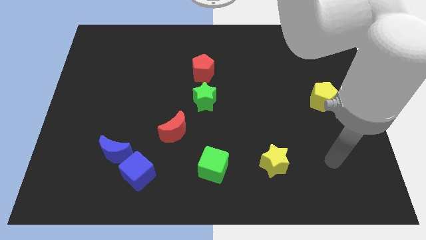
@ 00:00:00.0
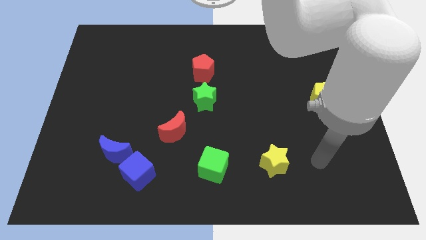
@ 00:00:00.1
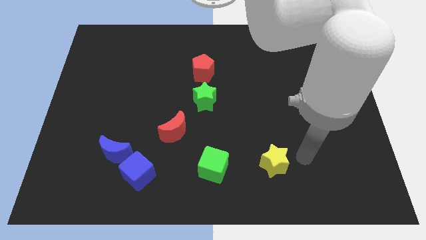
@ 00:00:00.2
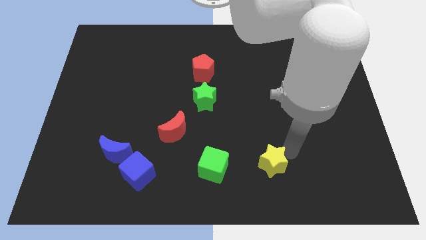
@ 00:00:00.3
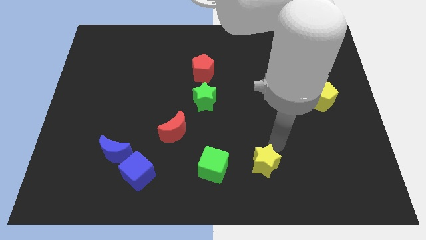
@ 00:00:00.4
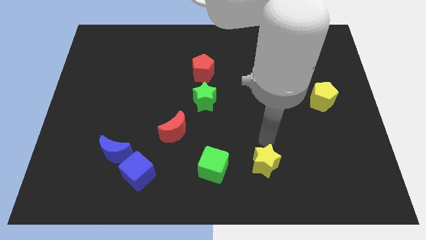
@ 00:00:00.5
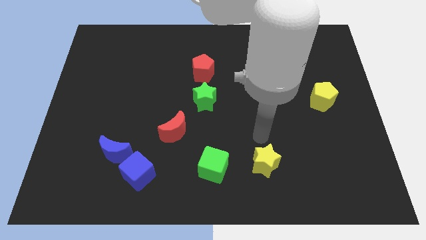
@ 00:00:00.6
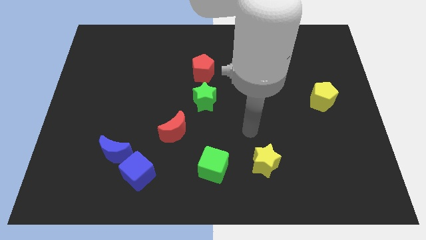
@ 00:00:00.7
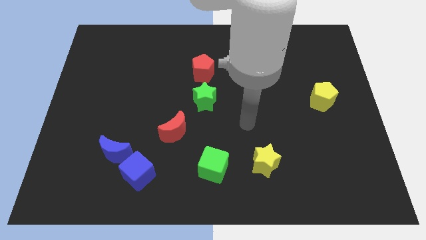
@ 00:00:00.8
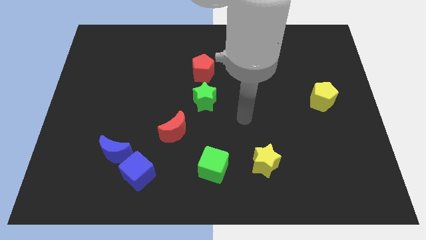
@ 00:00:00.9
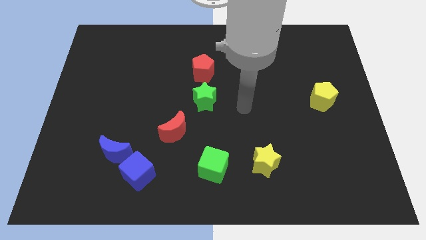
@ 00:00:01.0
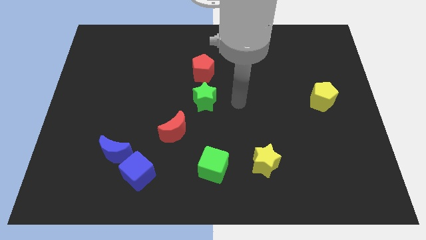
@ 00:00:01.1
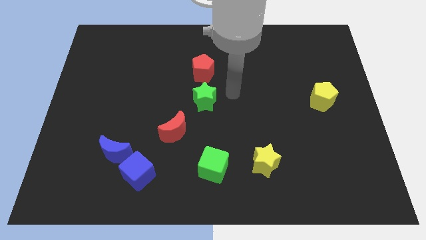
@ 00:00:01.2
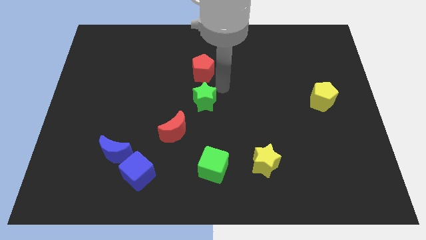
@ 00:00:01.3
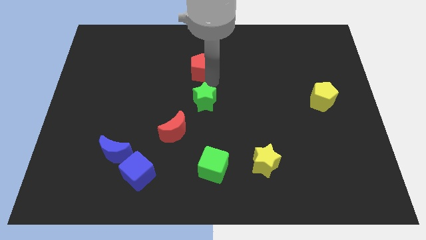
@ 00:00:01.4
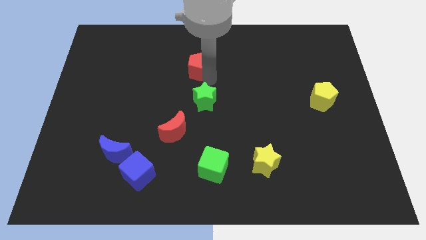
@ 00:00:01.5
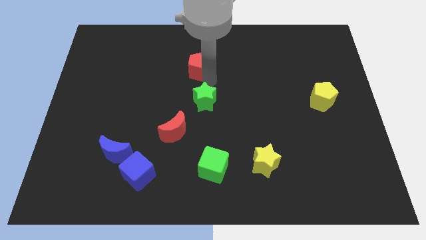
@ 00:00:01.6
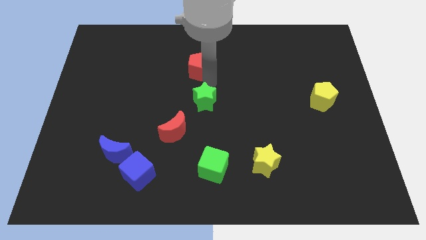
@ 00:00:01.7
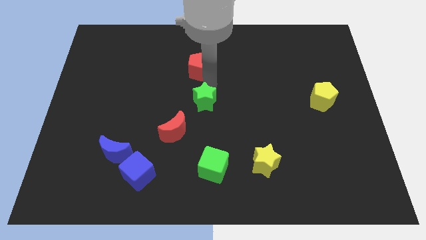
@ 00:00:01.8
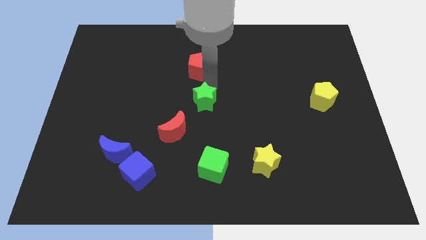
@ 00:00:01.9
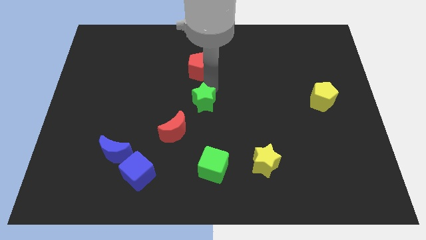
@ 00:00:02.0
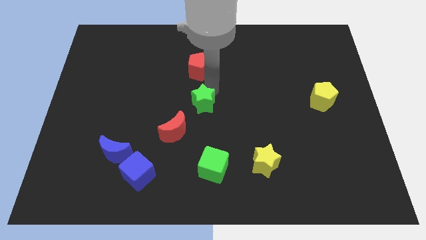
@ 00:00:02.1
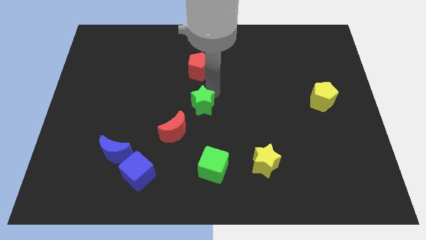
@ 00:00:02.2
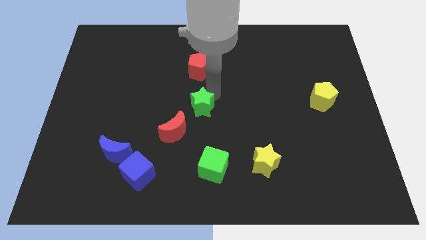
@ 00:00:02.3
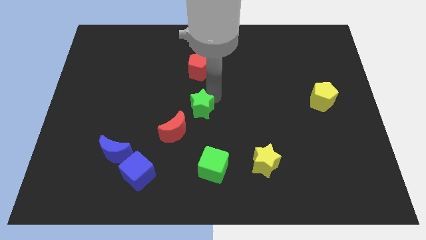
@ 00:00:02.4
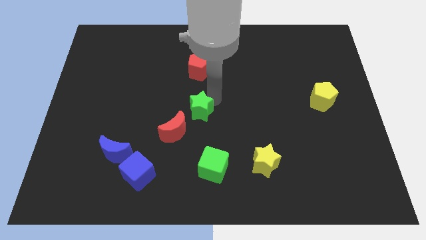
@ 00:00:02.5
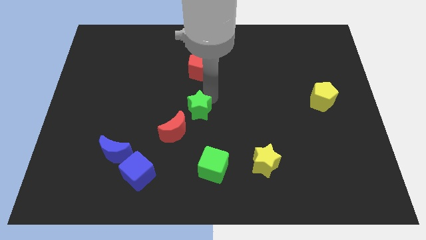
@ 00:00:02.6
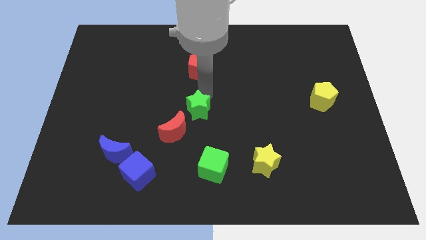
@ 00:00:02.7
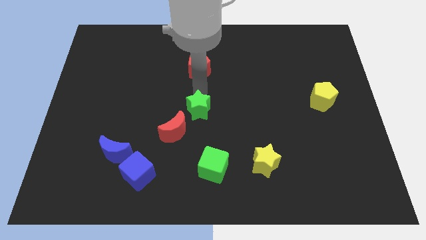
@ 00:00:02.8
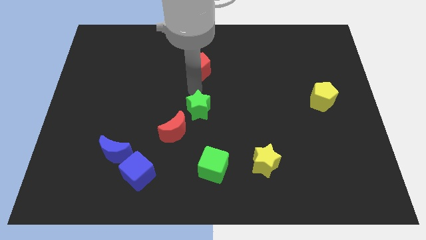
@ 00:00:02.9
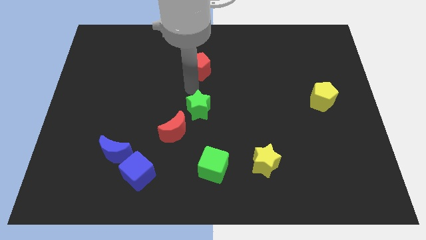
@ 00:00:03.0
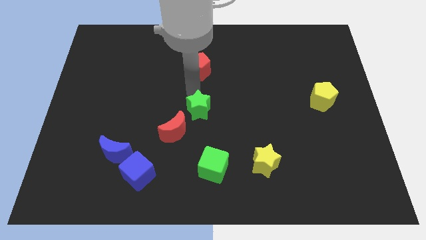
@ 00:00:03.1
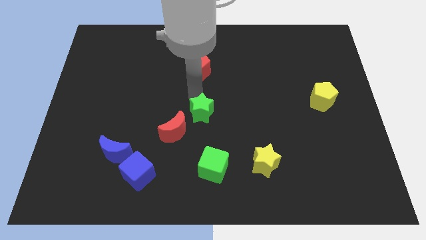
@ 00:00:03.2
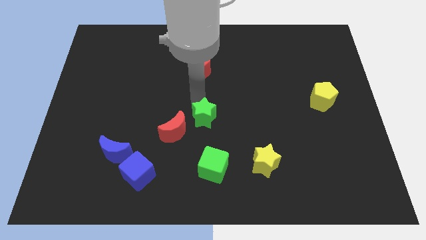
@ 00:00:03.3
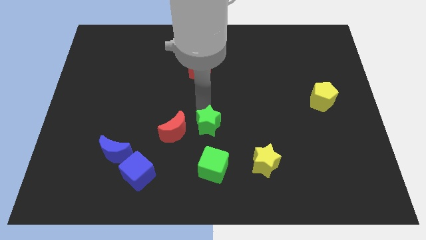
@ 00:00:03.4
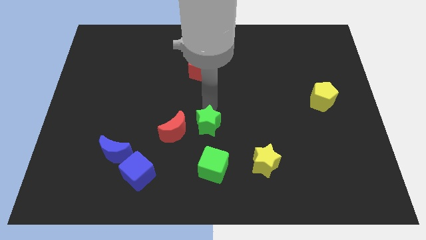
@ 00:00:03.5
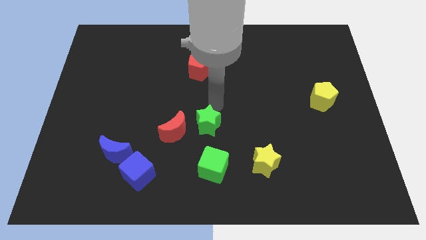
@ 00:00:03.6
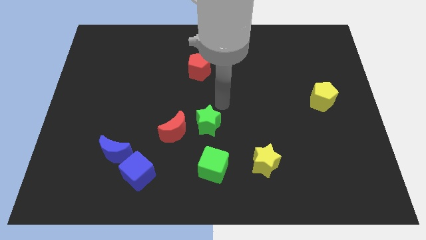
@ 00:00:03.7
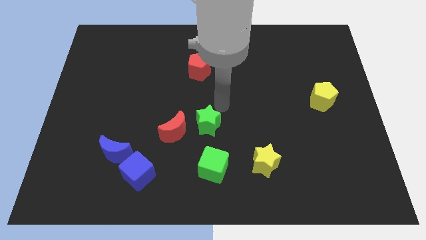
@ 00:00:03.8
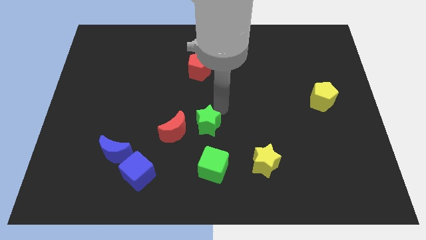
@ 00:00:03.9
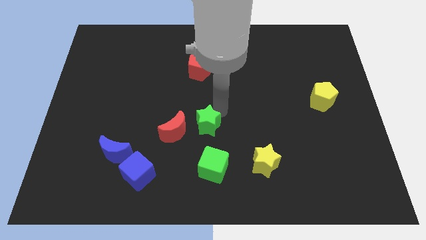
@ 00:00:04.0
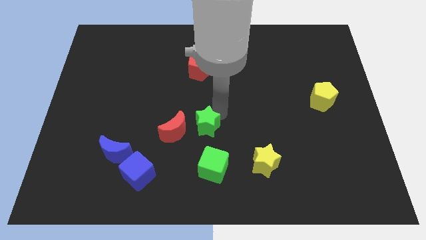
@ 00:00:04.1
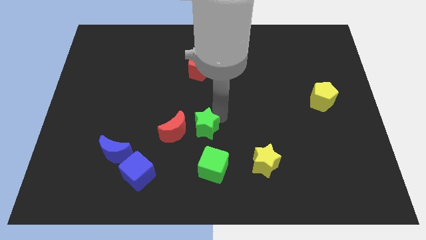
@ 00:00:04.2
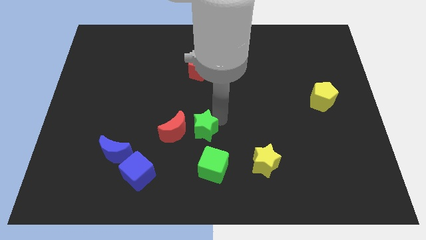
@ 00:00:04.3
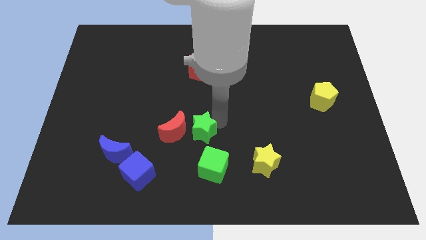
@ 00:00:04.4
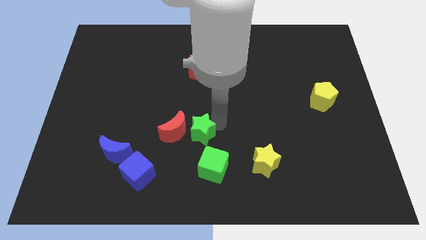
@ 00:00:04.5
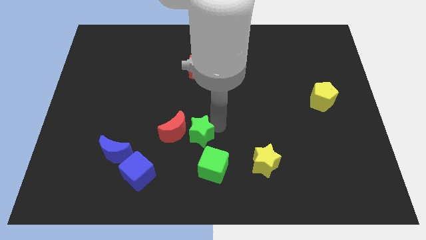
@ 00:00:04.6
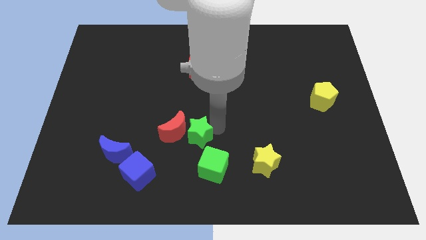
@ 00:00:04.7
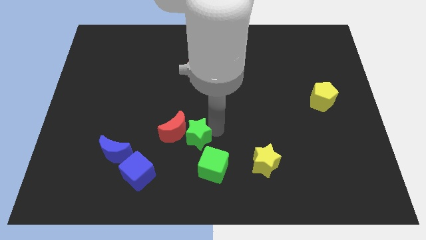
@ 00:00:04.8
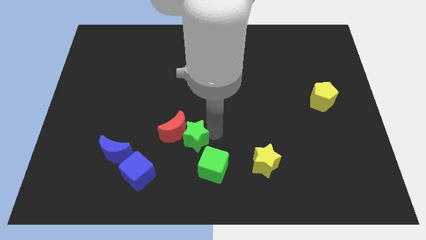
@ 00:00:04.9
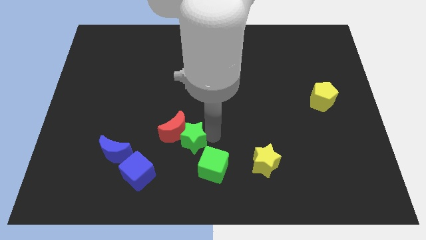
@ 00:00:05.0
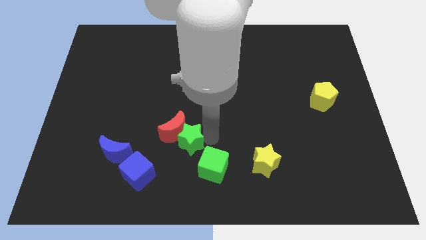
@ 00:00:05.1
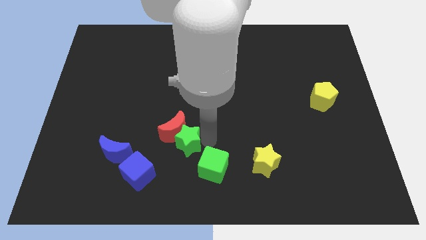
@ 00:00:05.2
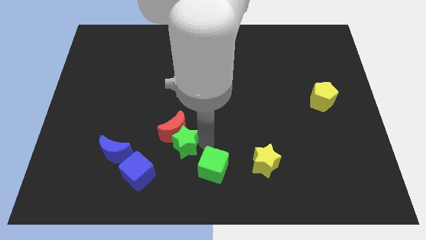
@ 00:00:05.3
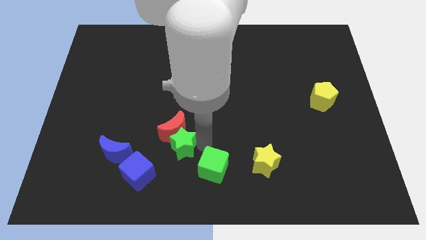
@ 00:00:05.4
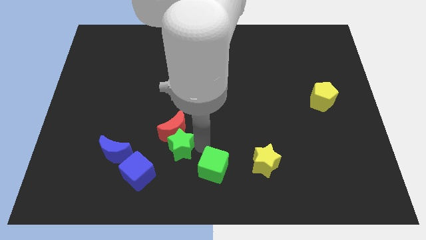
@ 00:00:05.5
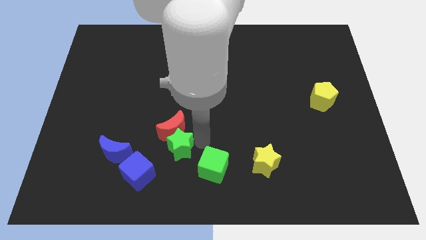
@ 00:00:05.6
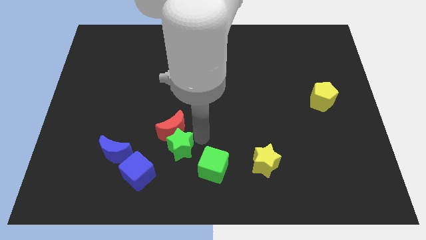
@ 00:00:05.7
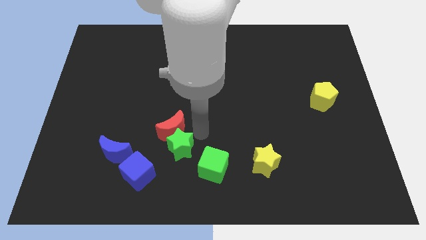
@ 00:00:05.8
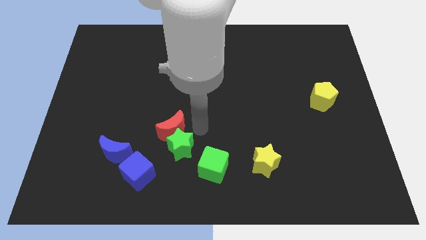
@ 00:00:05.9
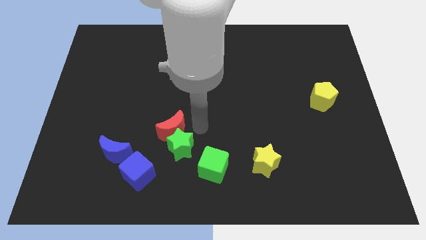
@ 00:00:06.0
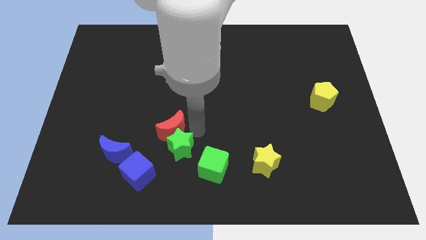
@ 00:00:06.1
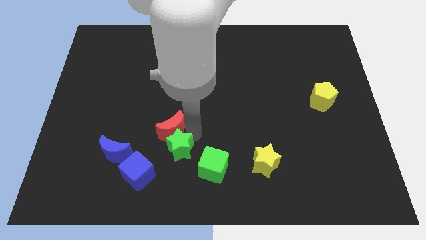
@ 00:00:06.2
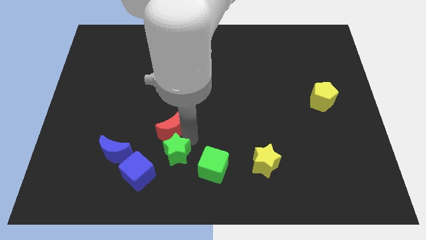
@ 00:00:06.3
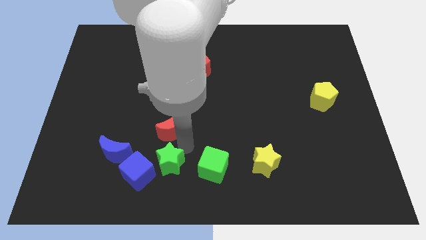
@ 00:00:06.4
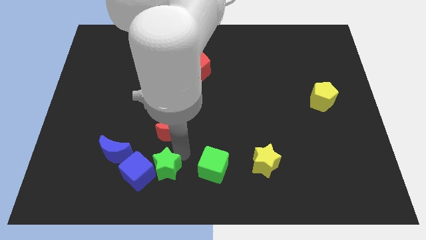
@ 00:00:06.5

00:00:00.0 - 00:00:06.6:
push the green star close to the blue cube
